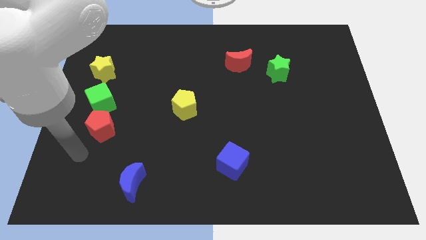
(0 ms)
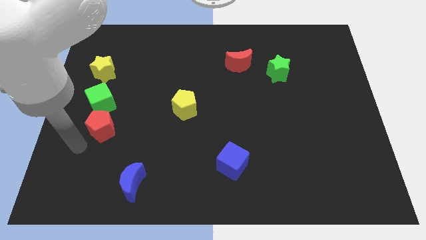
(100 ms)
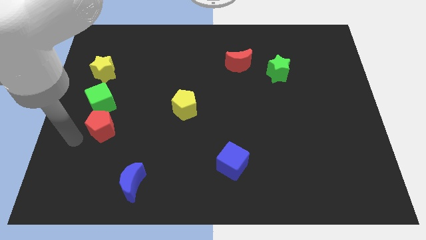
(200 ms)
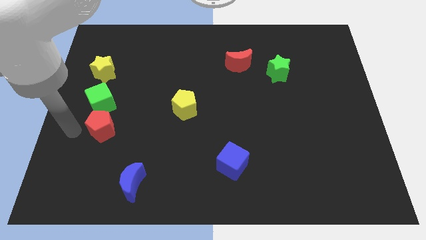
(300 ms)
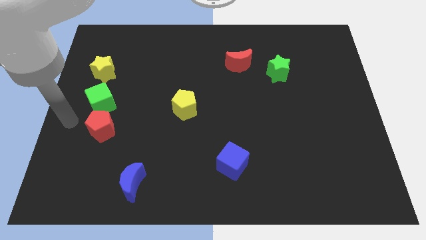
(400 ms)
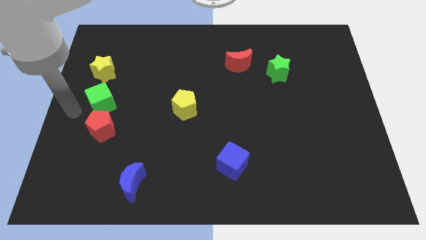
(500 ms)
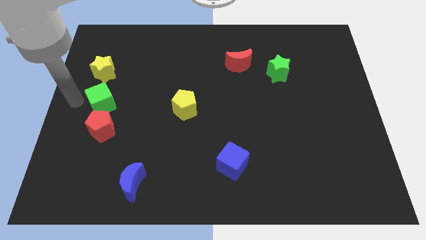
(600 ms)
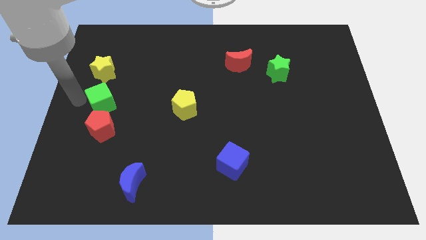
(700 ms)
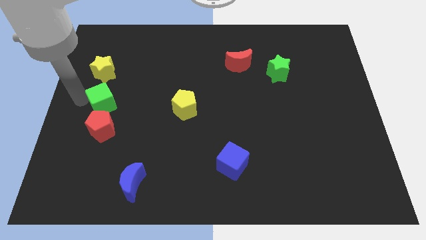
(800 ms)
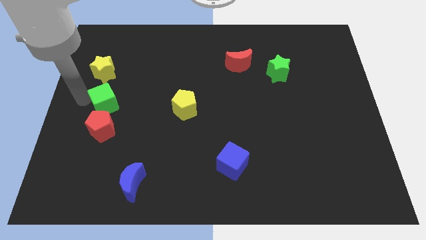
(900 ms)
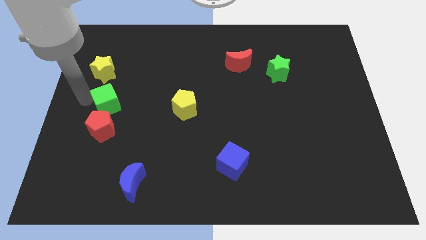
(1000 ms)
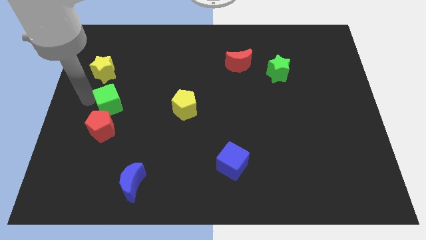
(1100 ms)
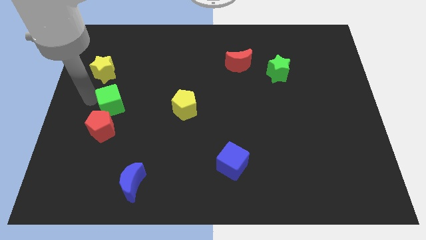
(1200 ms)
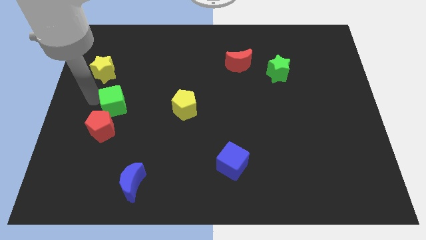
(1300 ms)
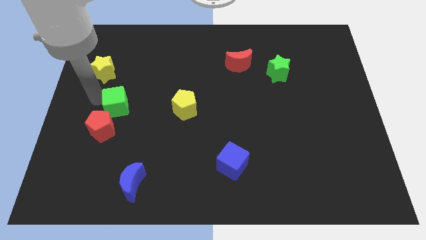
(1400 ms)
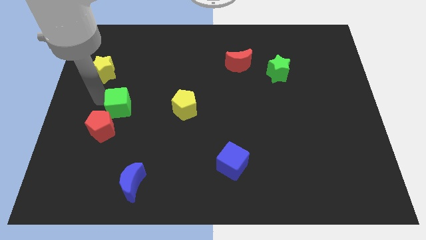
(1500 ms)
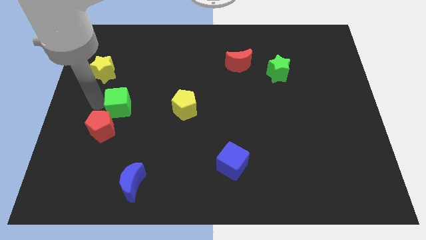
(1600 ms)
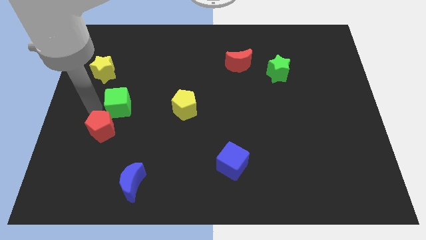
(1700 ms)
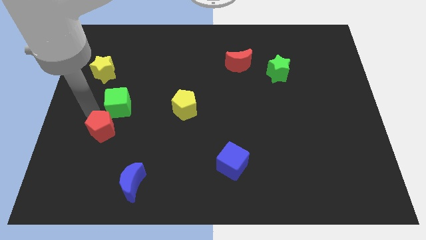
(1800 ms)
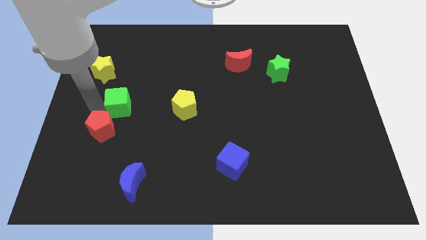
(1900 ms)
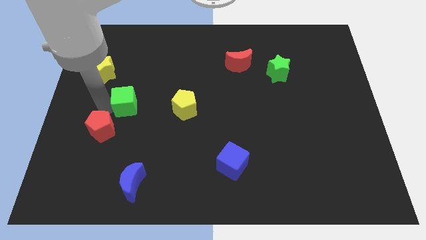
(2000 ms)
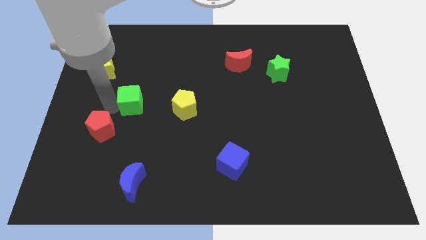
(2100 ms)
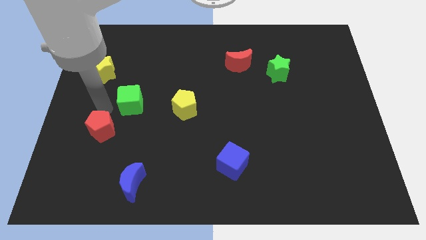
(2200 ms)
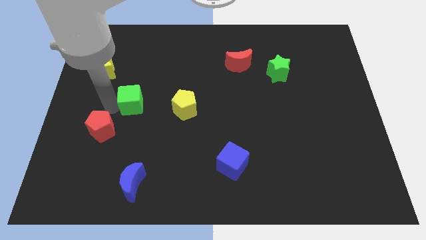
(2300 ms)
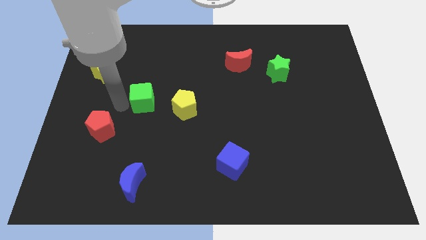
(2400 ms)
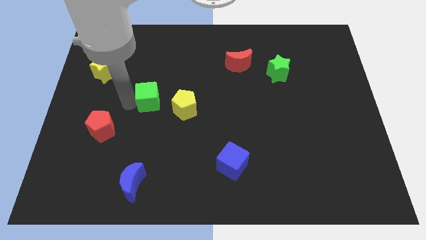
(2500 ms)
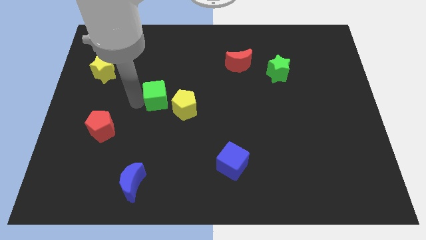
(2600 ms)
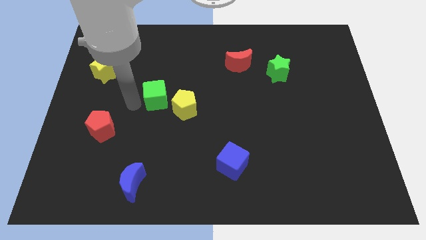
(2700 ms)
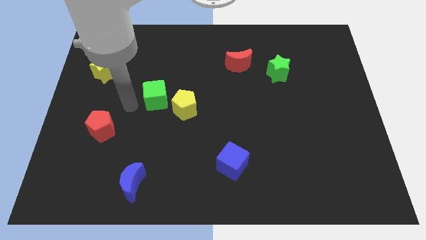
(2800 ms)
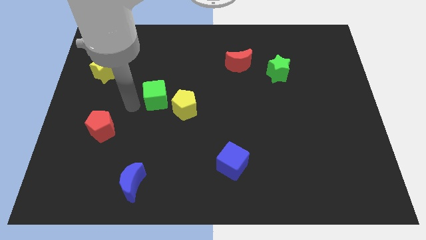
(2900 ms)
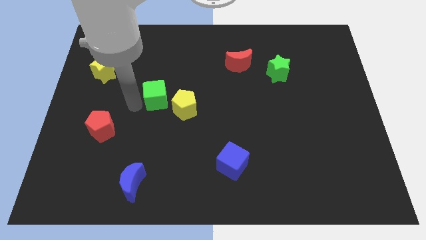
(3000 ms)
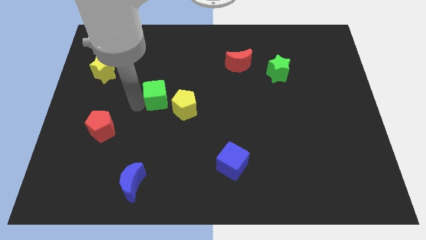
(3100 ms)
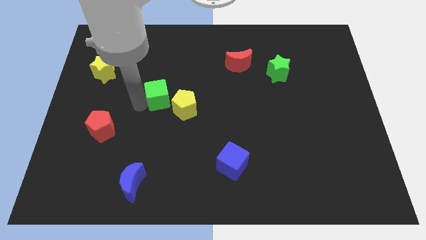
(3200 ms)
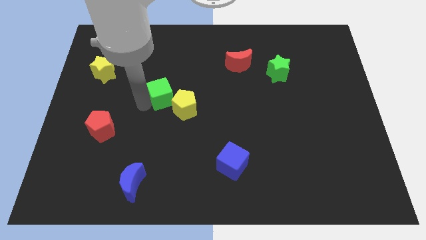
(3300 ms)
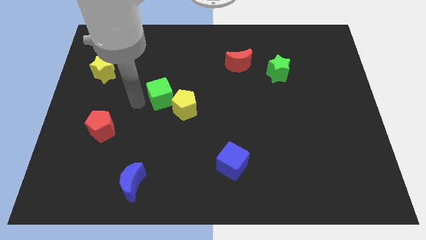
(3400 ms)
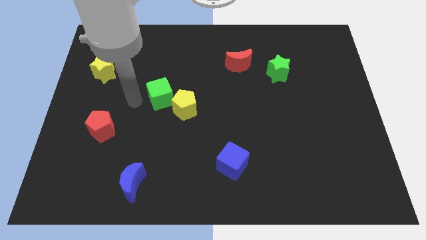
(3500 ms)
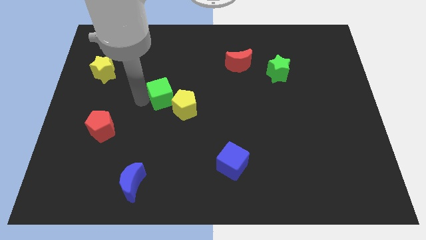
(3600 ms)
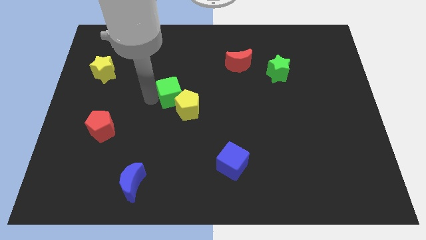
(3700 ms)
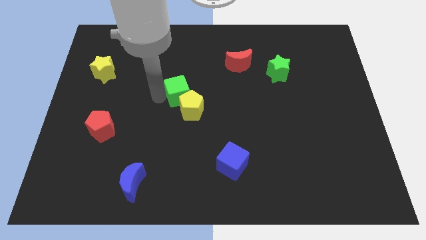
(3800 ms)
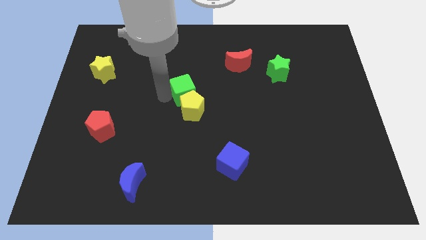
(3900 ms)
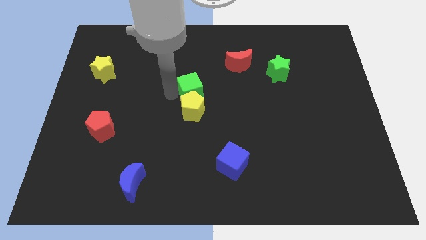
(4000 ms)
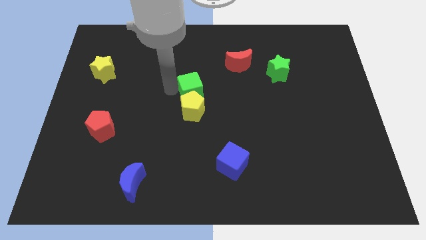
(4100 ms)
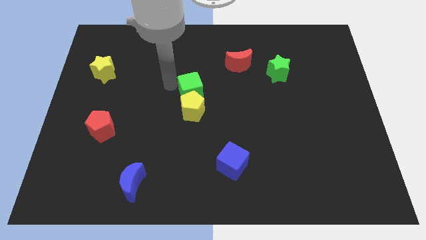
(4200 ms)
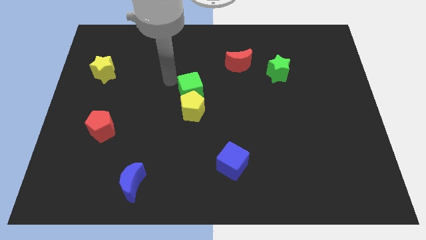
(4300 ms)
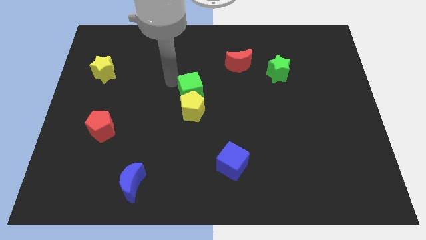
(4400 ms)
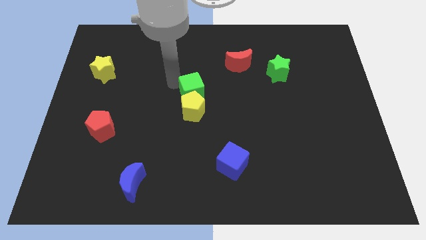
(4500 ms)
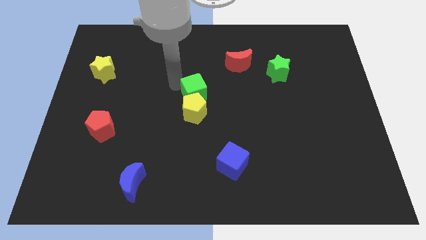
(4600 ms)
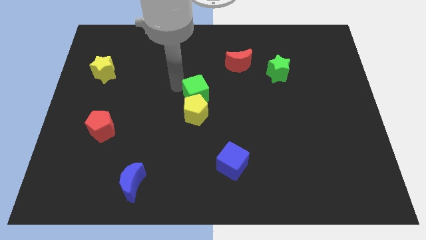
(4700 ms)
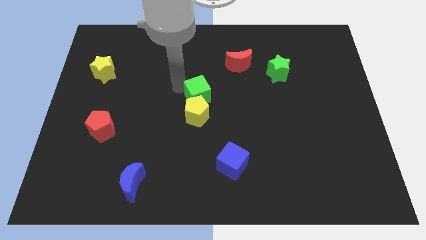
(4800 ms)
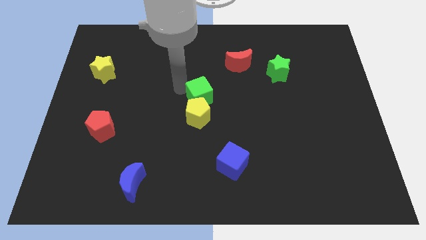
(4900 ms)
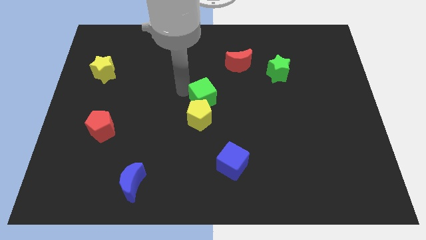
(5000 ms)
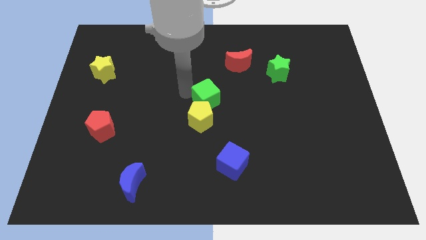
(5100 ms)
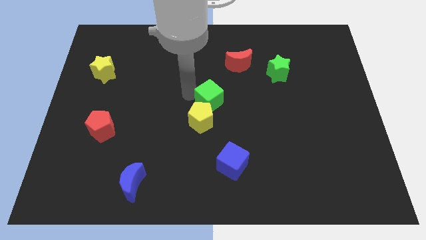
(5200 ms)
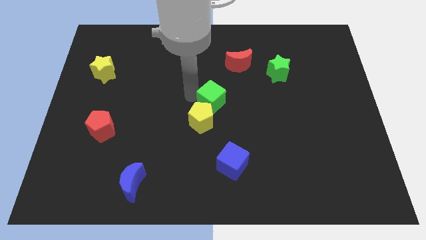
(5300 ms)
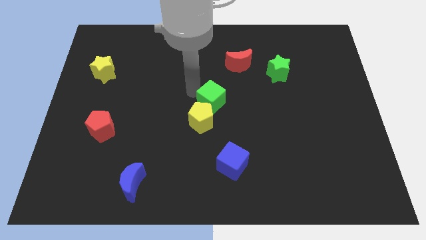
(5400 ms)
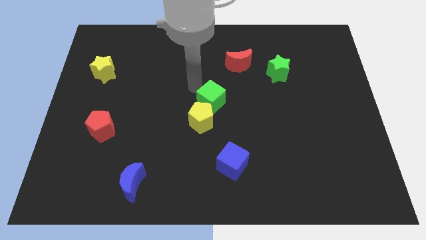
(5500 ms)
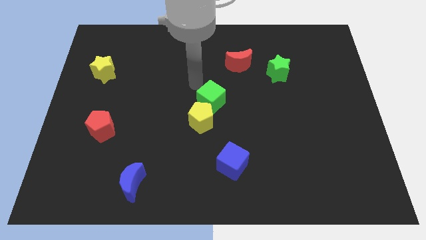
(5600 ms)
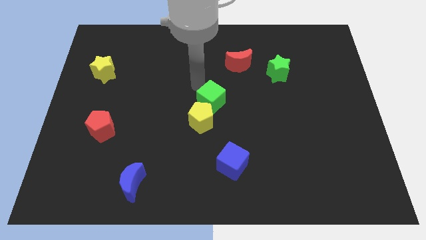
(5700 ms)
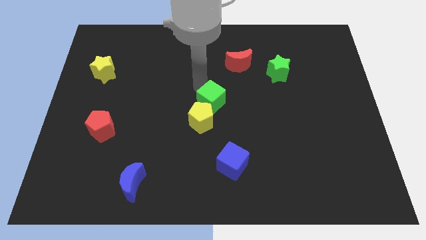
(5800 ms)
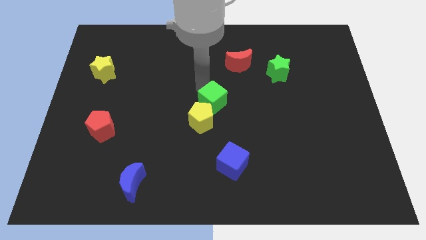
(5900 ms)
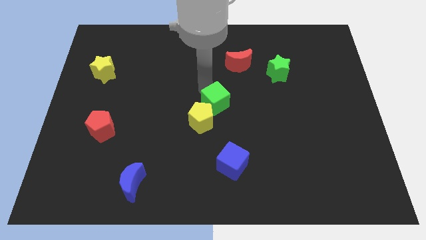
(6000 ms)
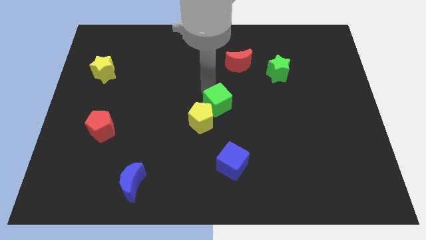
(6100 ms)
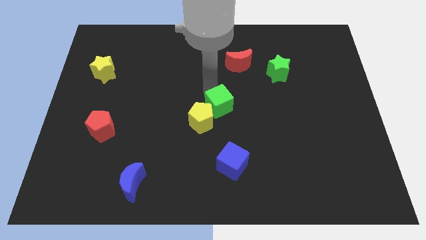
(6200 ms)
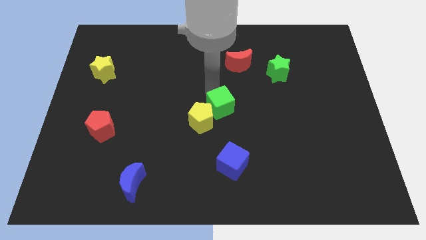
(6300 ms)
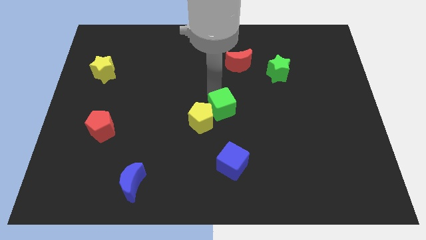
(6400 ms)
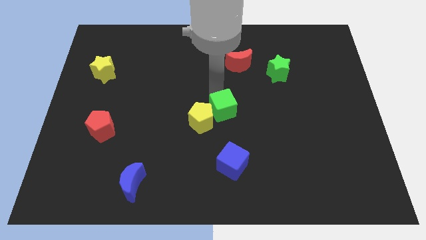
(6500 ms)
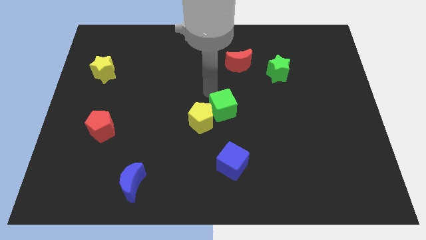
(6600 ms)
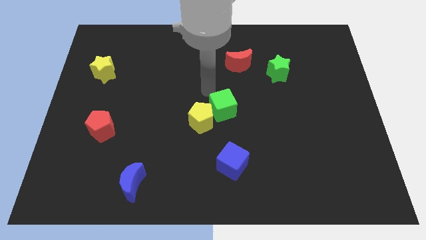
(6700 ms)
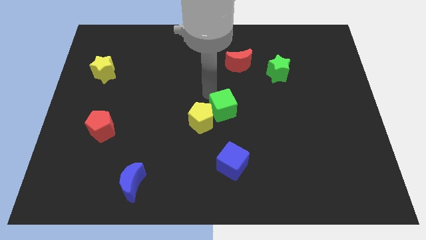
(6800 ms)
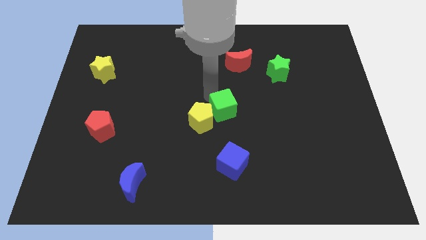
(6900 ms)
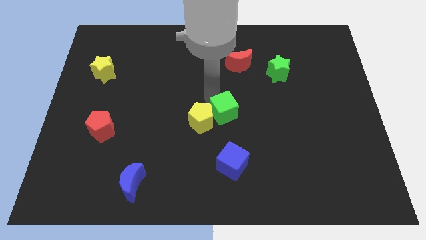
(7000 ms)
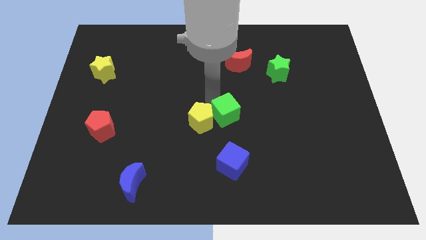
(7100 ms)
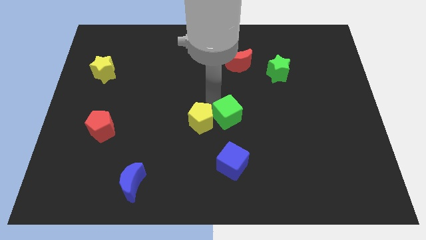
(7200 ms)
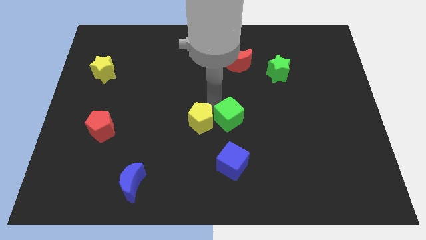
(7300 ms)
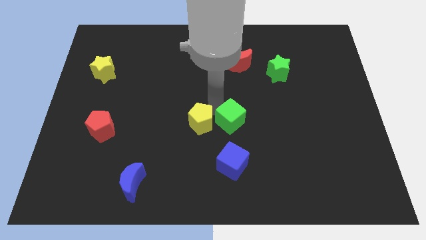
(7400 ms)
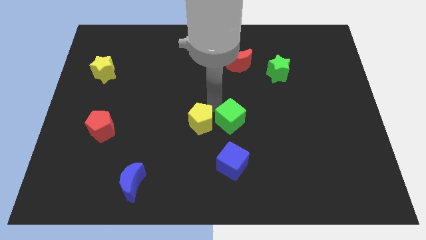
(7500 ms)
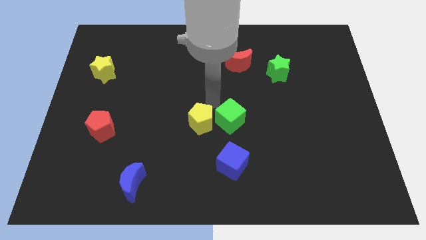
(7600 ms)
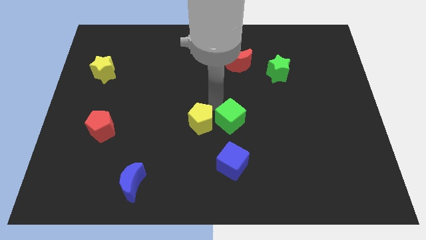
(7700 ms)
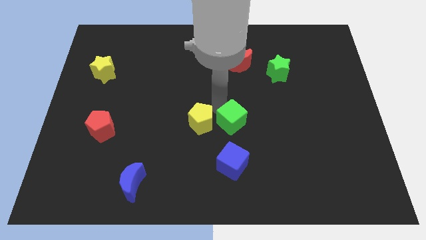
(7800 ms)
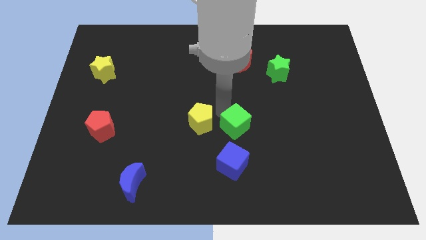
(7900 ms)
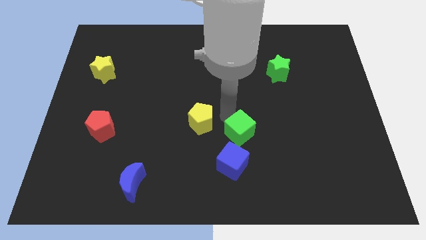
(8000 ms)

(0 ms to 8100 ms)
move the green cube to the top right of the blue cube
